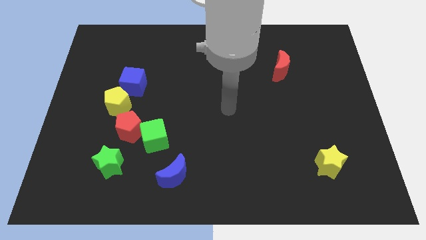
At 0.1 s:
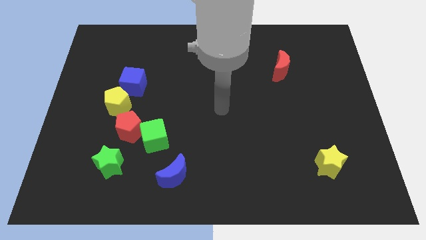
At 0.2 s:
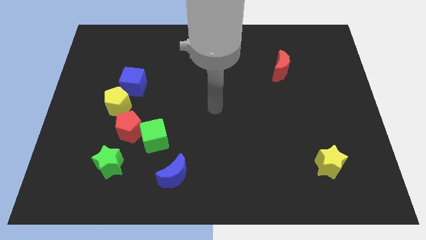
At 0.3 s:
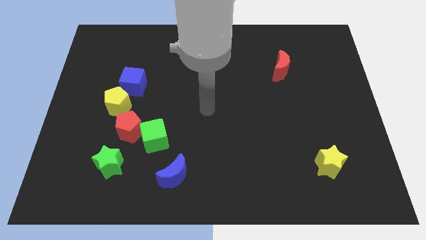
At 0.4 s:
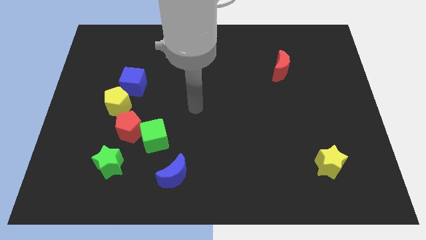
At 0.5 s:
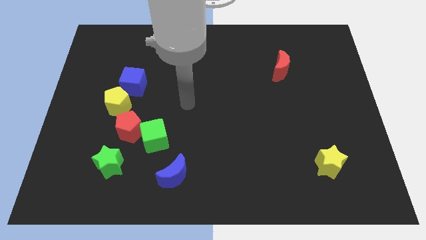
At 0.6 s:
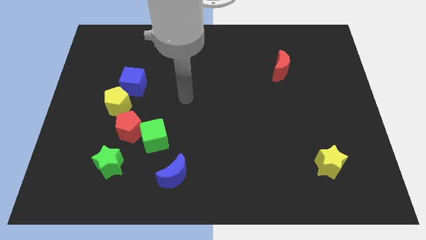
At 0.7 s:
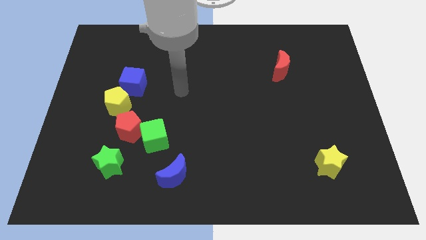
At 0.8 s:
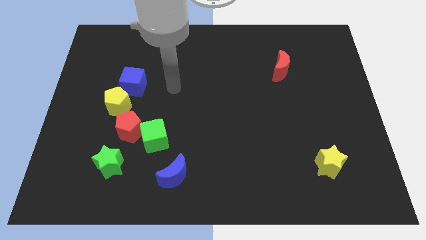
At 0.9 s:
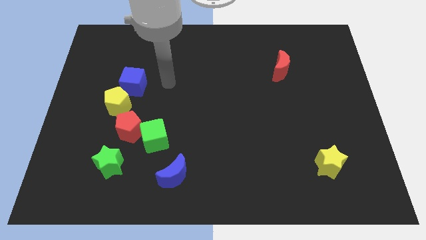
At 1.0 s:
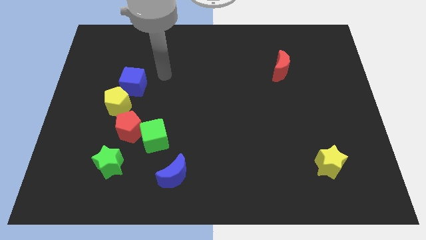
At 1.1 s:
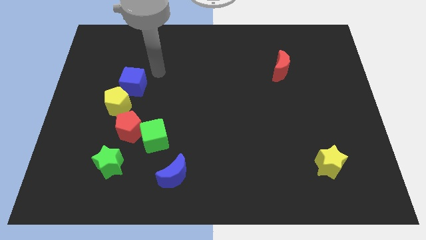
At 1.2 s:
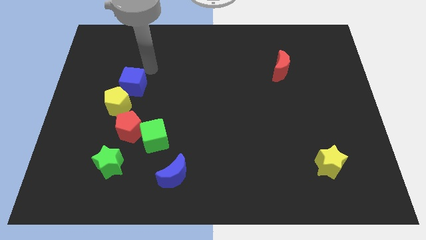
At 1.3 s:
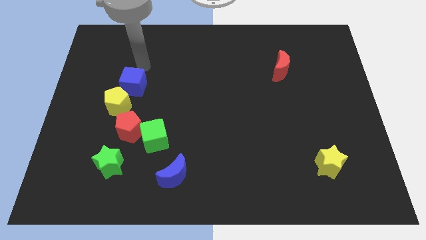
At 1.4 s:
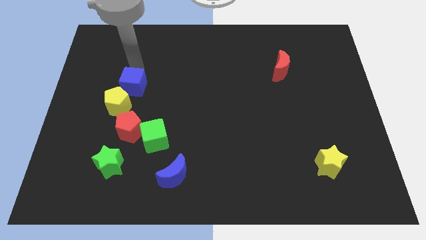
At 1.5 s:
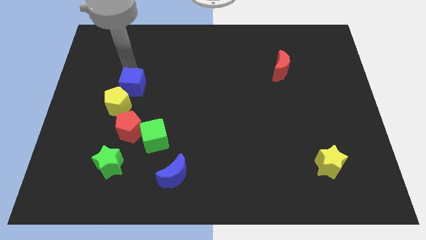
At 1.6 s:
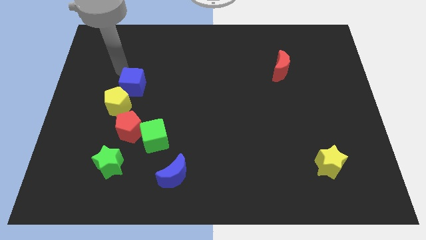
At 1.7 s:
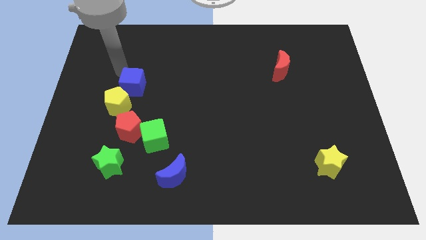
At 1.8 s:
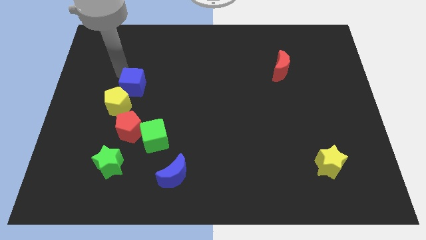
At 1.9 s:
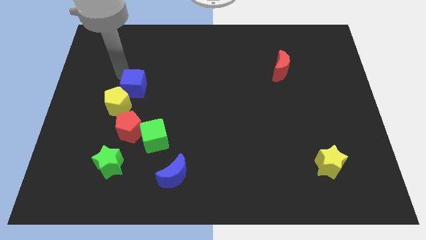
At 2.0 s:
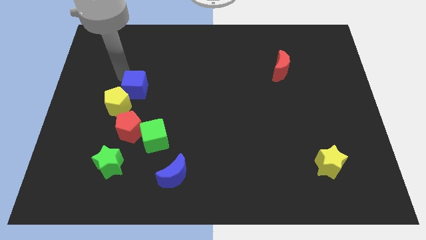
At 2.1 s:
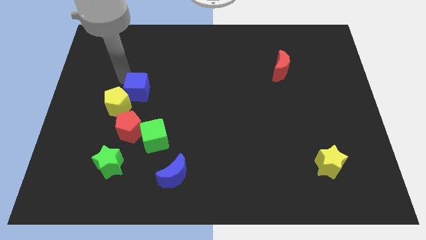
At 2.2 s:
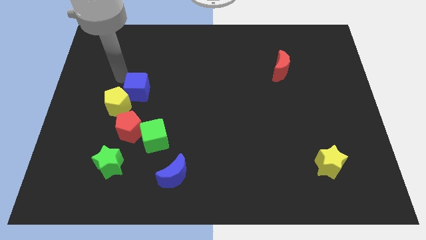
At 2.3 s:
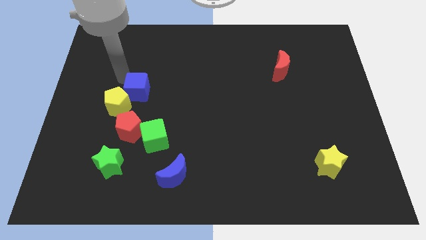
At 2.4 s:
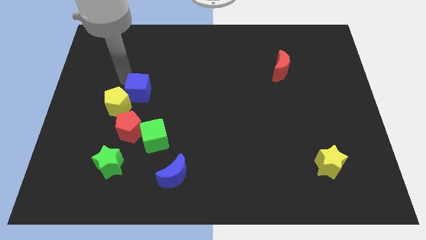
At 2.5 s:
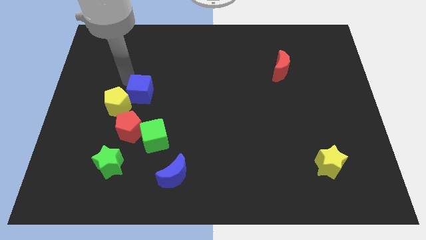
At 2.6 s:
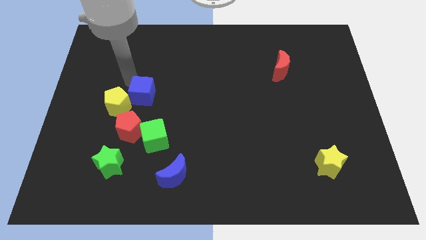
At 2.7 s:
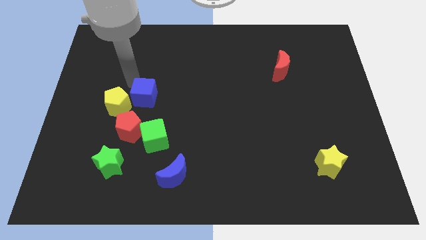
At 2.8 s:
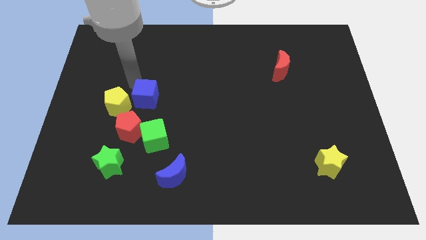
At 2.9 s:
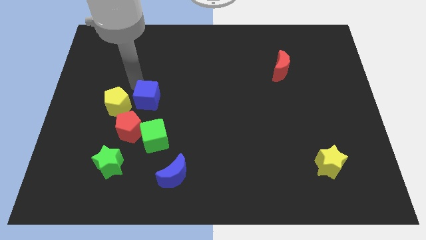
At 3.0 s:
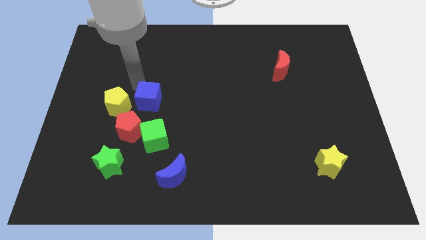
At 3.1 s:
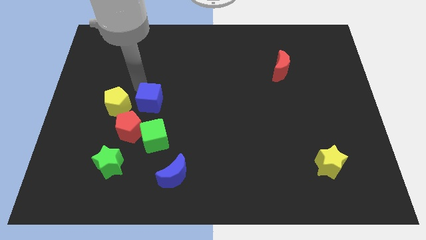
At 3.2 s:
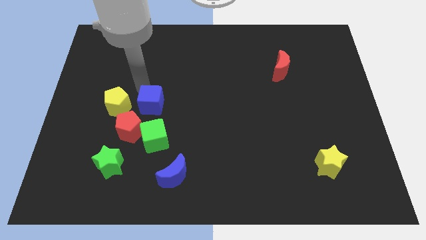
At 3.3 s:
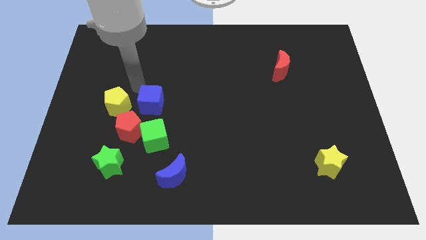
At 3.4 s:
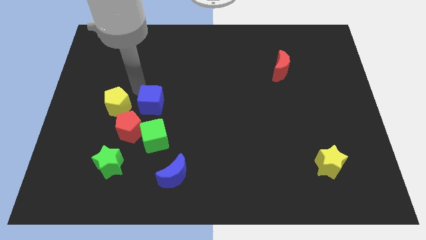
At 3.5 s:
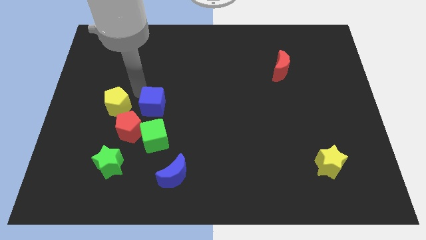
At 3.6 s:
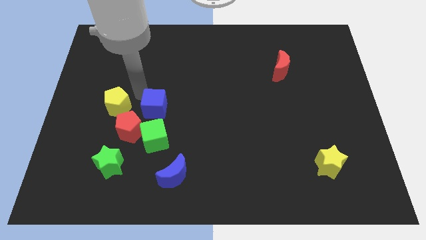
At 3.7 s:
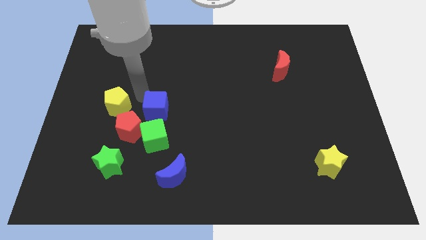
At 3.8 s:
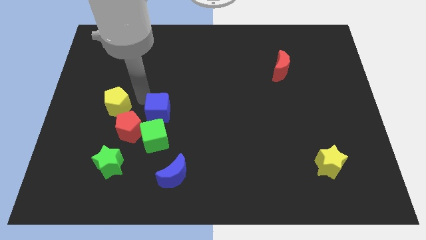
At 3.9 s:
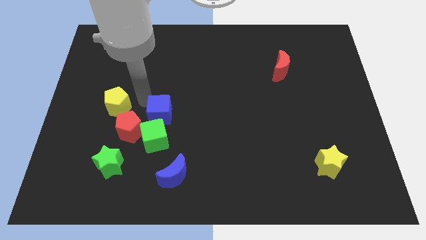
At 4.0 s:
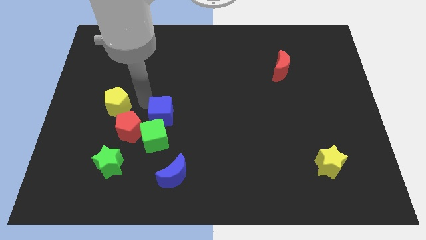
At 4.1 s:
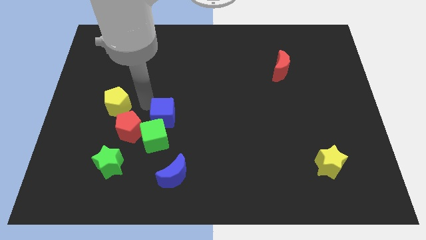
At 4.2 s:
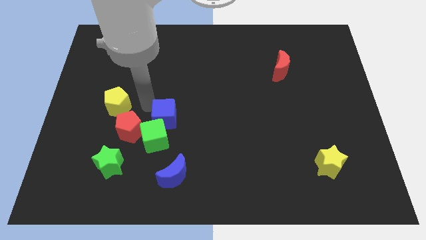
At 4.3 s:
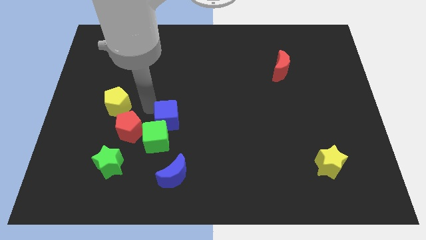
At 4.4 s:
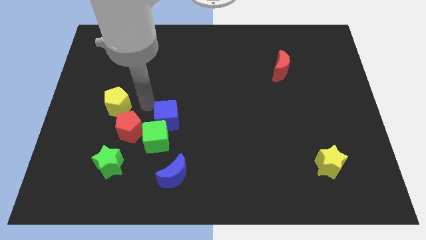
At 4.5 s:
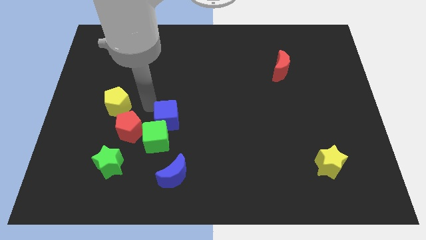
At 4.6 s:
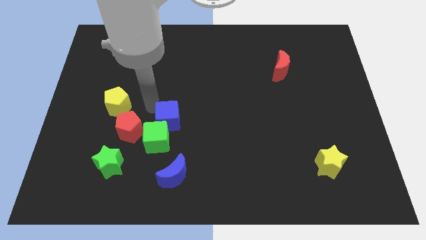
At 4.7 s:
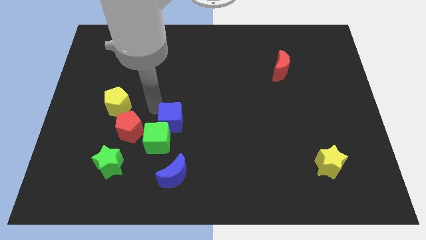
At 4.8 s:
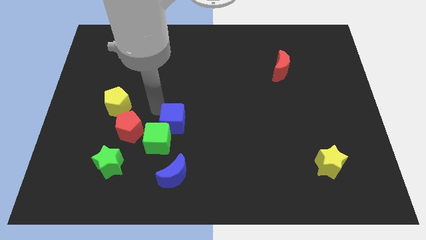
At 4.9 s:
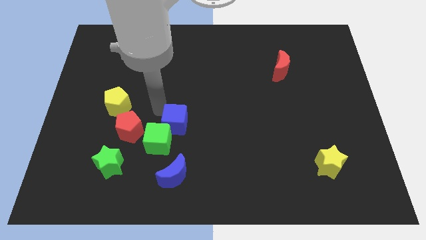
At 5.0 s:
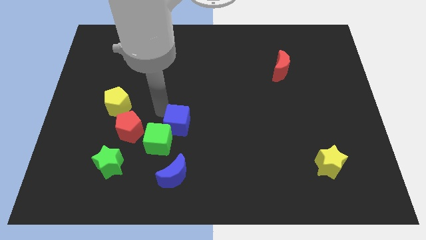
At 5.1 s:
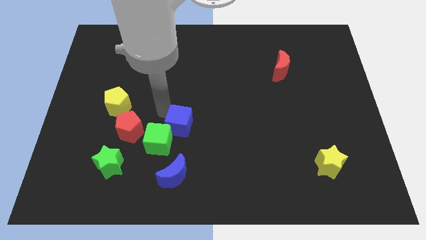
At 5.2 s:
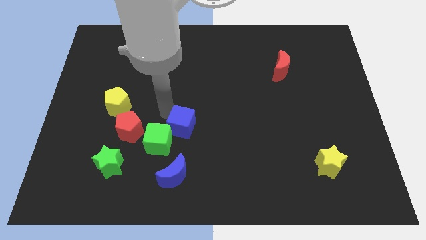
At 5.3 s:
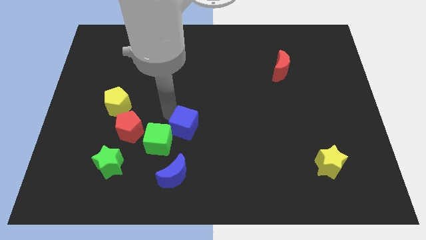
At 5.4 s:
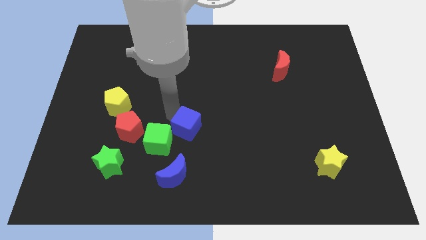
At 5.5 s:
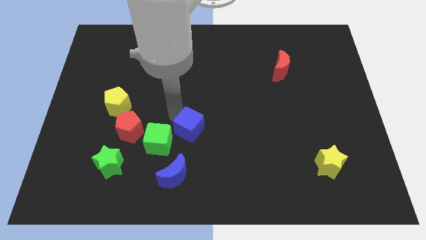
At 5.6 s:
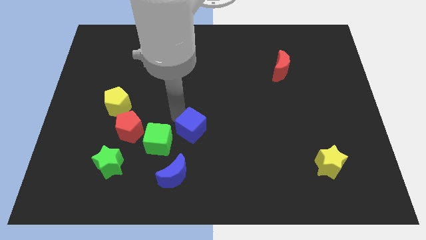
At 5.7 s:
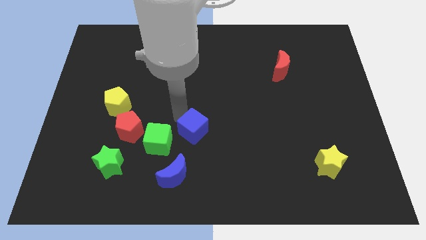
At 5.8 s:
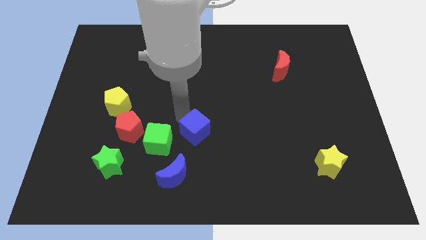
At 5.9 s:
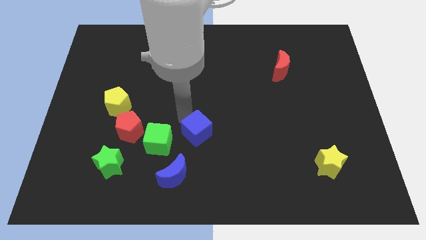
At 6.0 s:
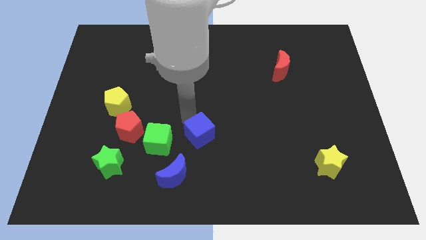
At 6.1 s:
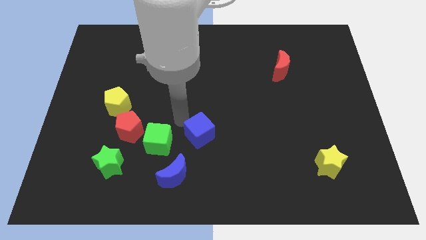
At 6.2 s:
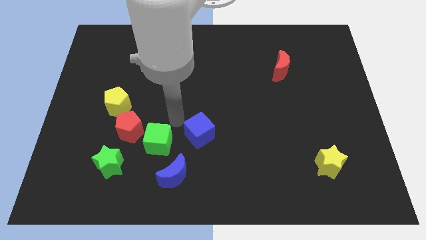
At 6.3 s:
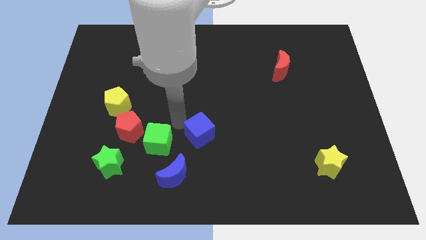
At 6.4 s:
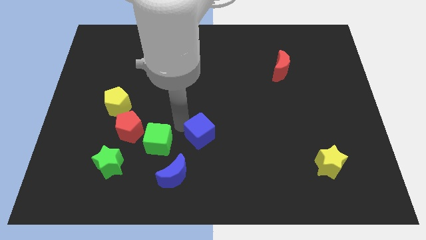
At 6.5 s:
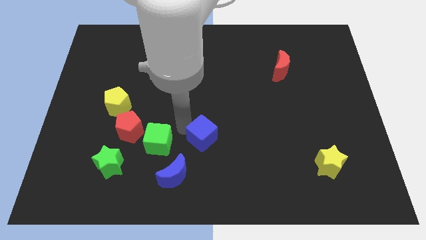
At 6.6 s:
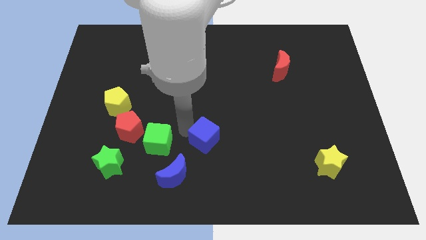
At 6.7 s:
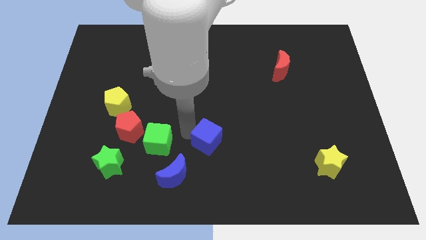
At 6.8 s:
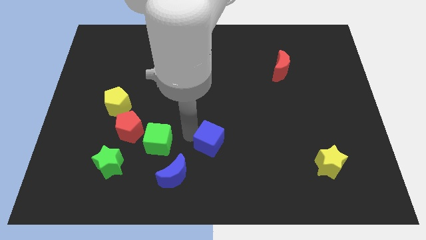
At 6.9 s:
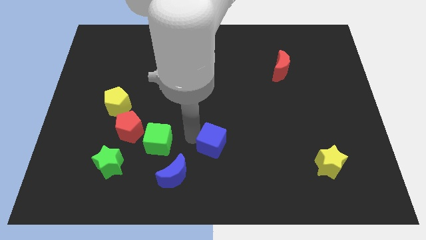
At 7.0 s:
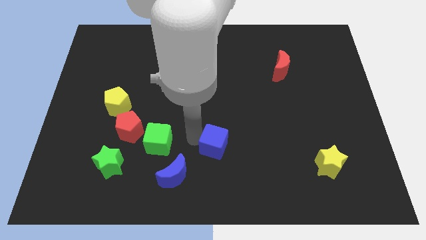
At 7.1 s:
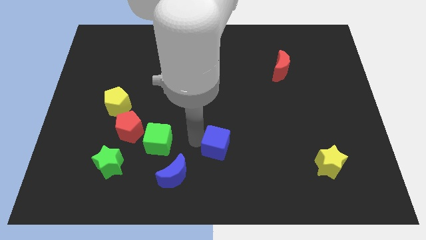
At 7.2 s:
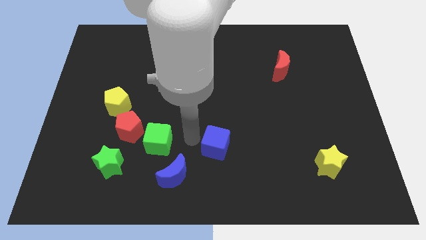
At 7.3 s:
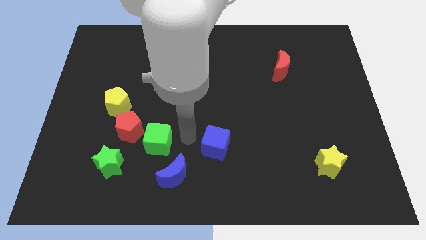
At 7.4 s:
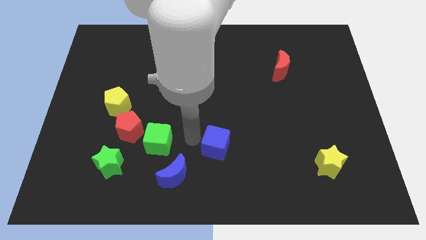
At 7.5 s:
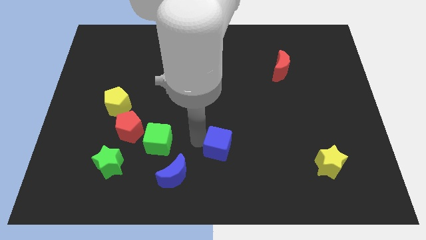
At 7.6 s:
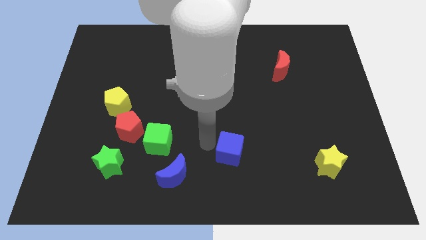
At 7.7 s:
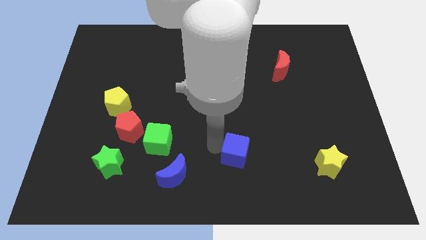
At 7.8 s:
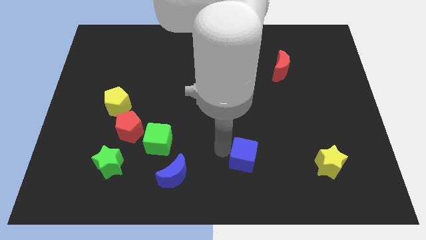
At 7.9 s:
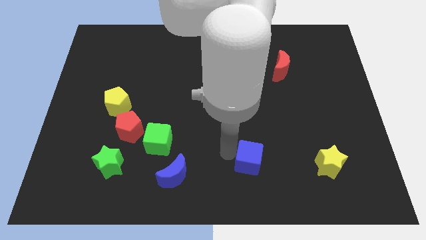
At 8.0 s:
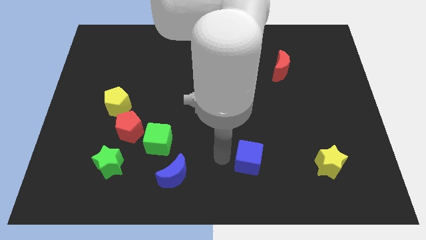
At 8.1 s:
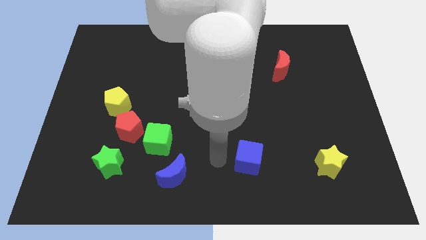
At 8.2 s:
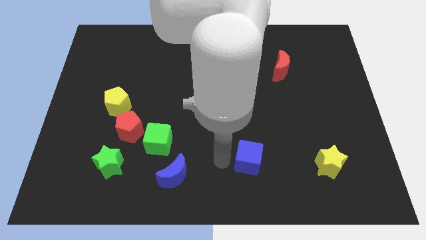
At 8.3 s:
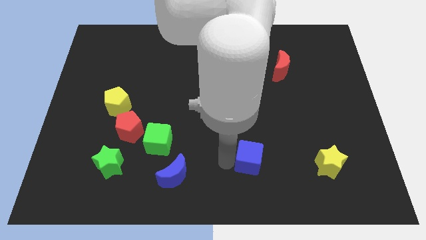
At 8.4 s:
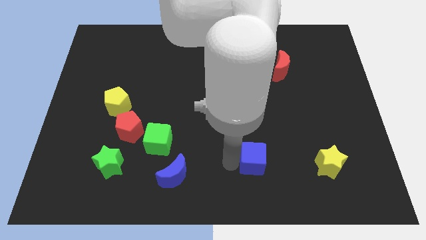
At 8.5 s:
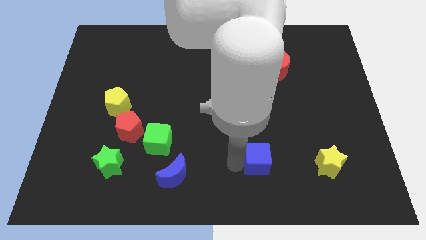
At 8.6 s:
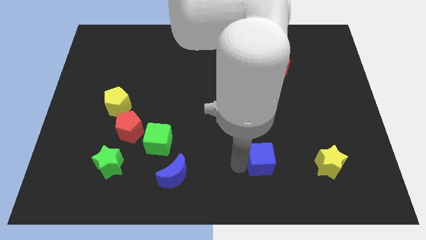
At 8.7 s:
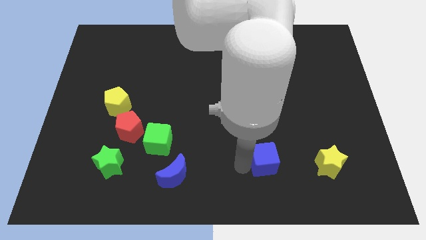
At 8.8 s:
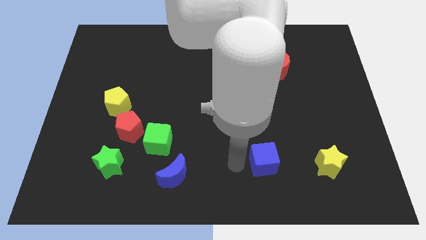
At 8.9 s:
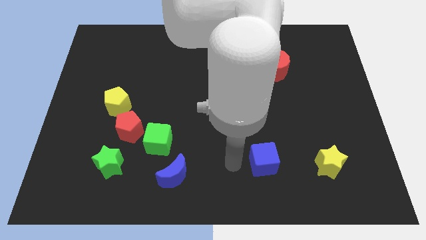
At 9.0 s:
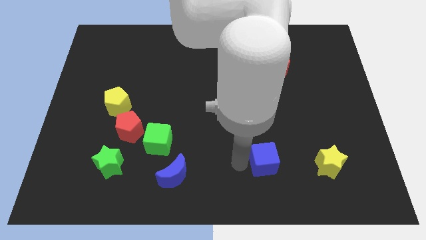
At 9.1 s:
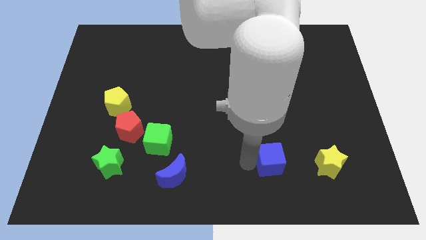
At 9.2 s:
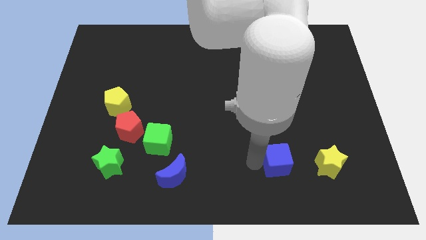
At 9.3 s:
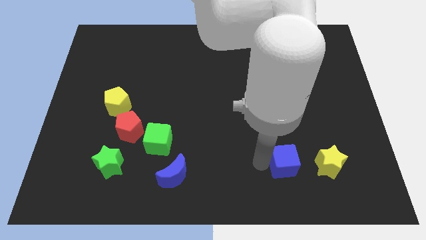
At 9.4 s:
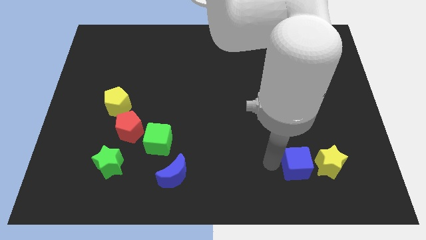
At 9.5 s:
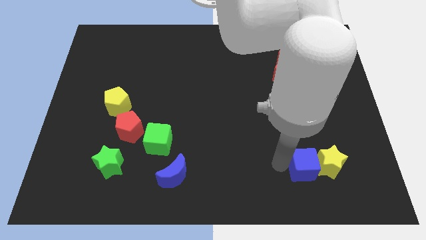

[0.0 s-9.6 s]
move the blue cube towards the yellow star
